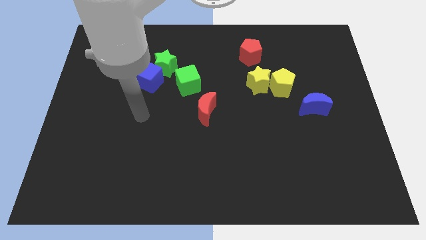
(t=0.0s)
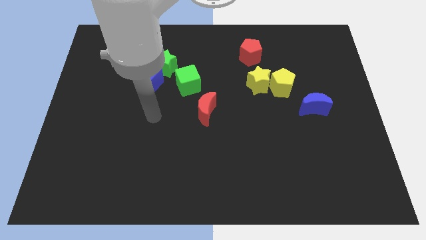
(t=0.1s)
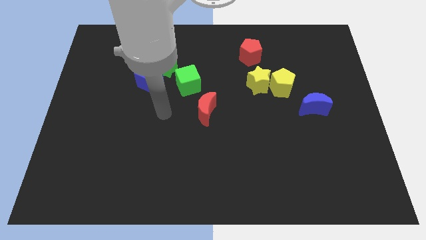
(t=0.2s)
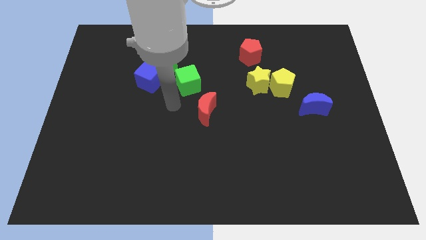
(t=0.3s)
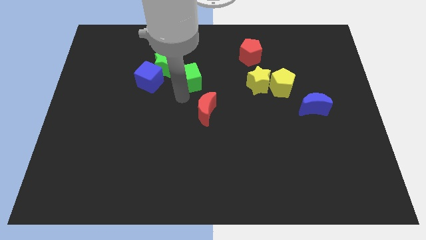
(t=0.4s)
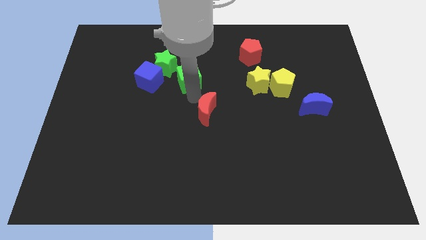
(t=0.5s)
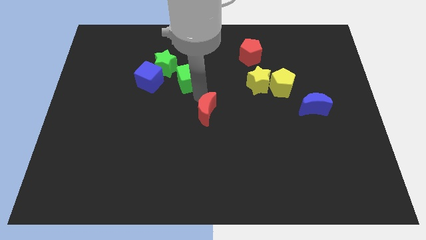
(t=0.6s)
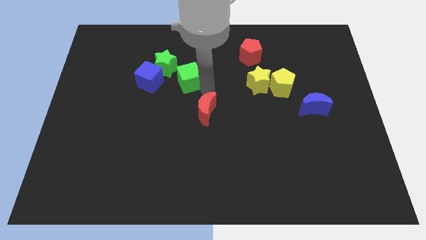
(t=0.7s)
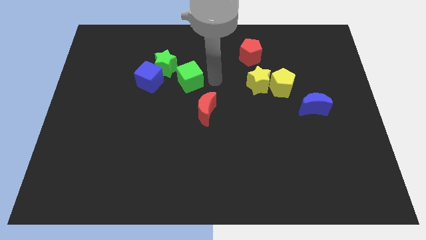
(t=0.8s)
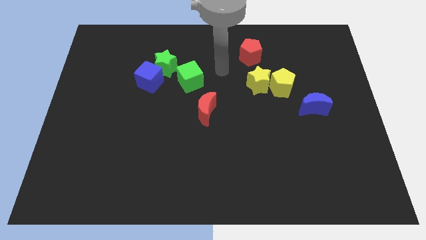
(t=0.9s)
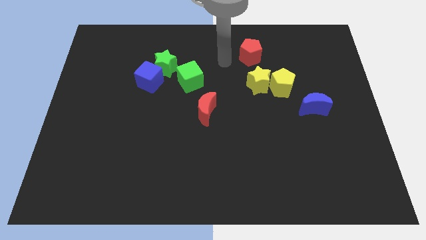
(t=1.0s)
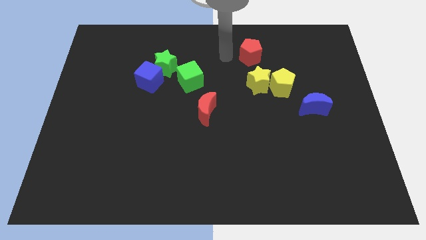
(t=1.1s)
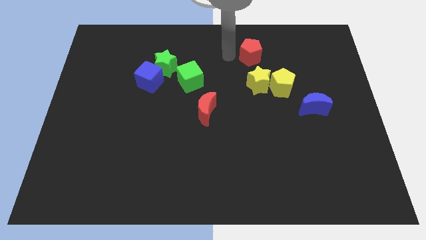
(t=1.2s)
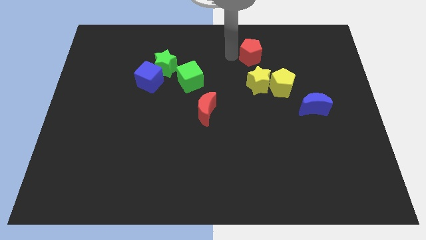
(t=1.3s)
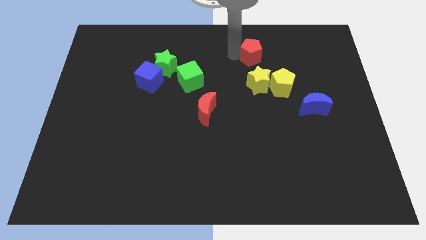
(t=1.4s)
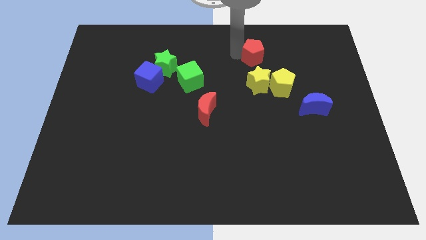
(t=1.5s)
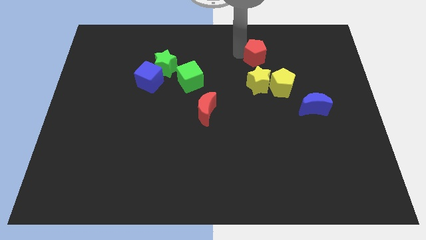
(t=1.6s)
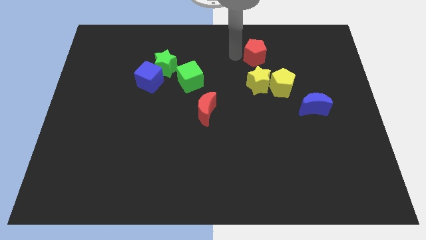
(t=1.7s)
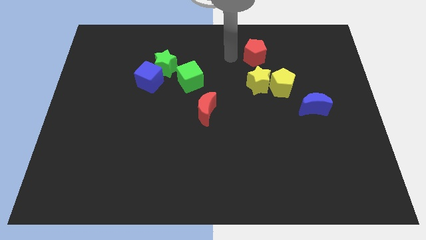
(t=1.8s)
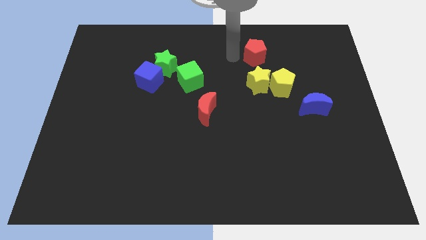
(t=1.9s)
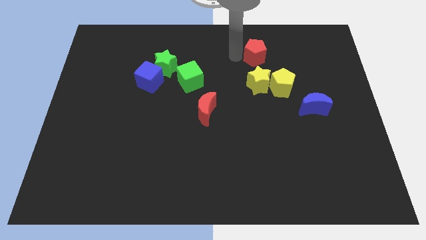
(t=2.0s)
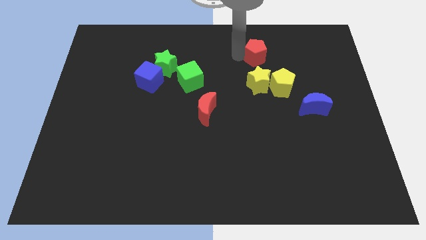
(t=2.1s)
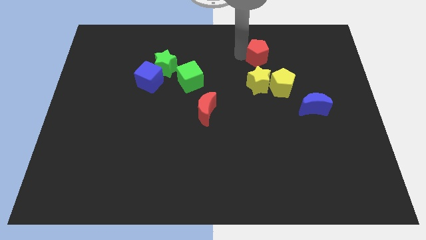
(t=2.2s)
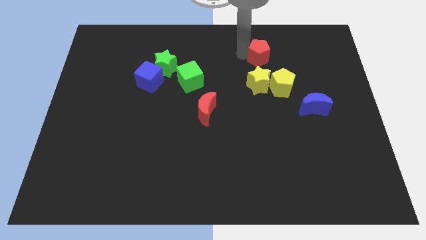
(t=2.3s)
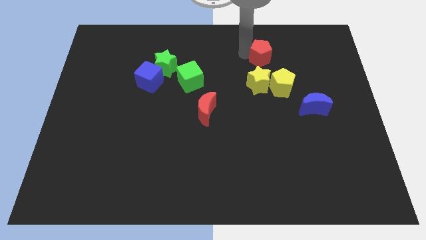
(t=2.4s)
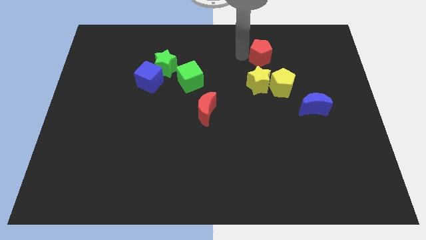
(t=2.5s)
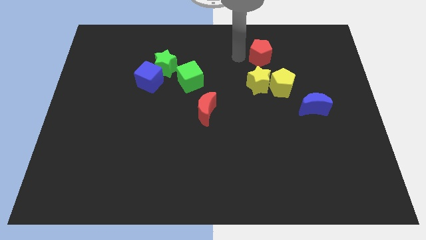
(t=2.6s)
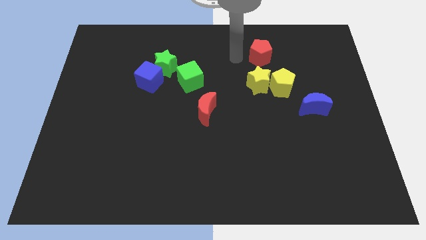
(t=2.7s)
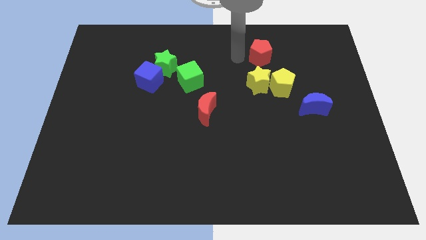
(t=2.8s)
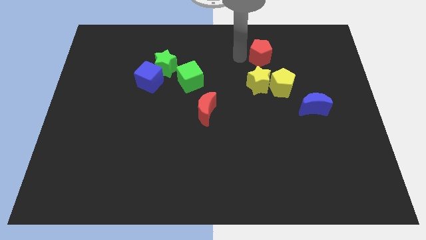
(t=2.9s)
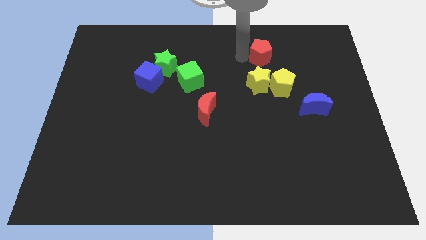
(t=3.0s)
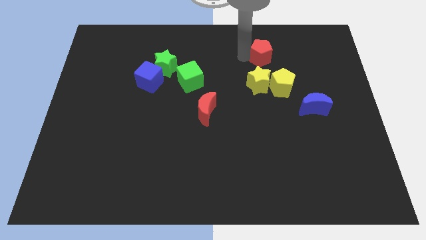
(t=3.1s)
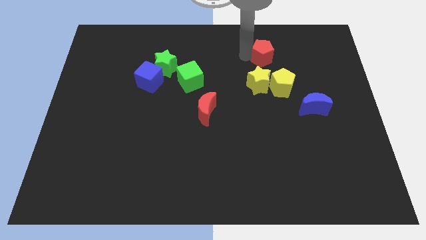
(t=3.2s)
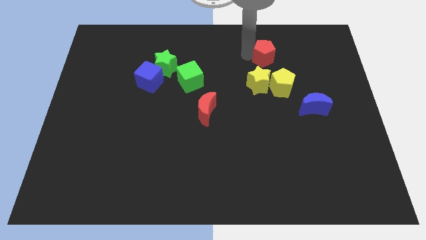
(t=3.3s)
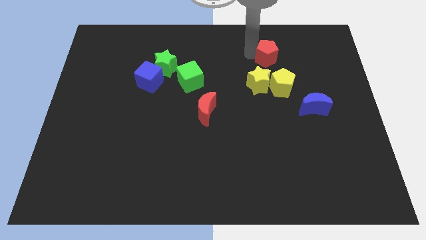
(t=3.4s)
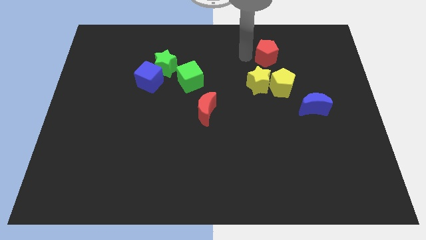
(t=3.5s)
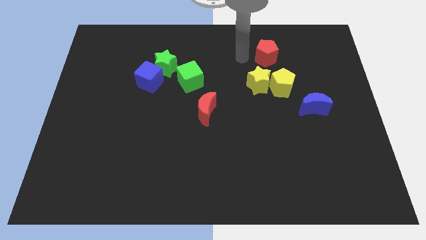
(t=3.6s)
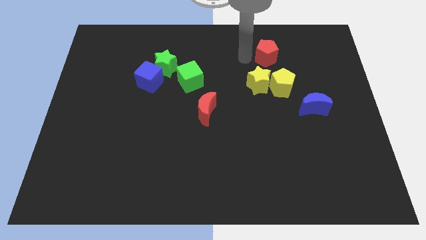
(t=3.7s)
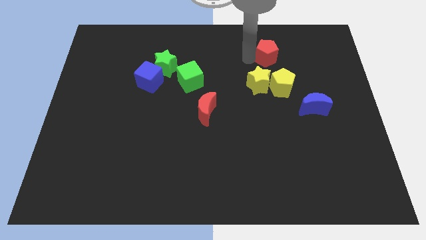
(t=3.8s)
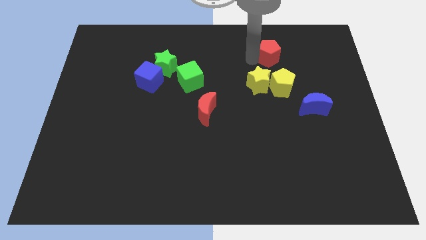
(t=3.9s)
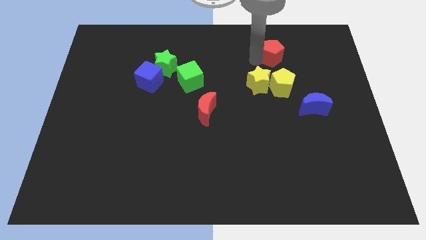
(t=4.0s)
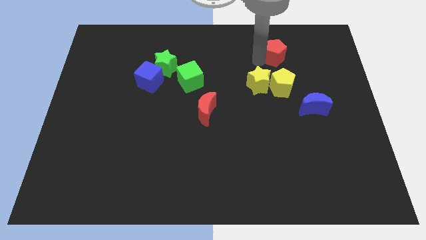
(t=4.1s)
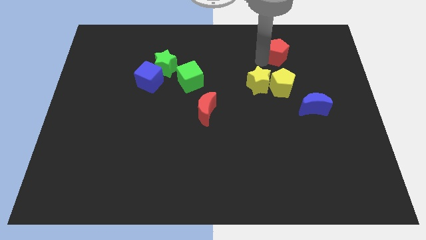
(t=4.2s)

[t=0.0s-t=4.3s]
slightly slide the red pentagon to the right

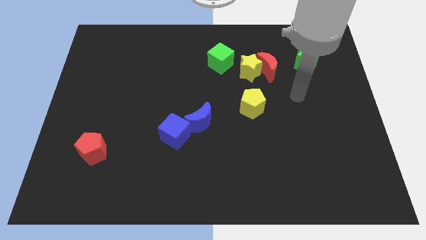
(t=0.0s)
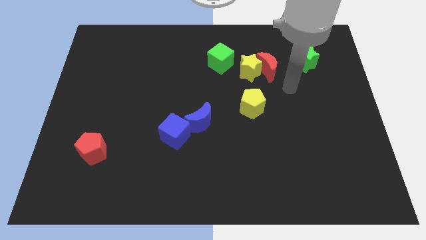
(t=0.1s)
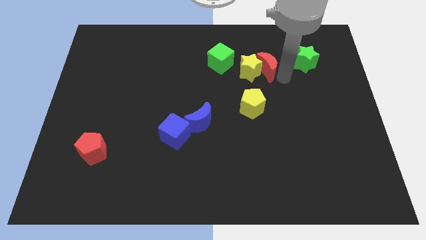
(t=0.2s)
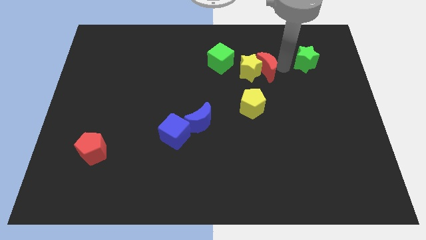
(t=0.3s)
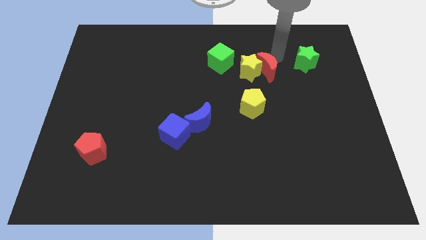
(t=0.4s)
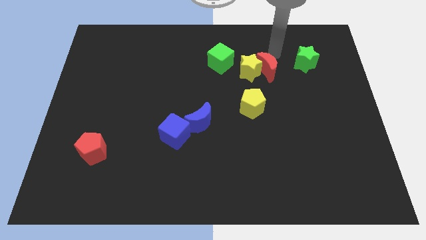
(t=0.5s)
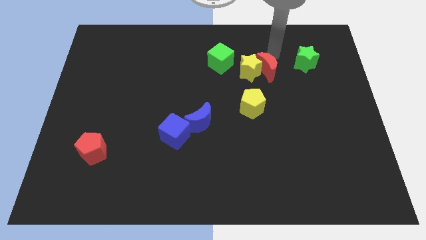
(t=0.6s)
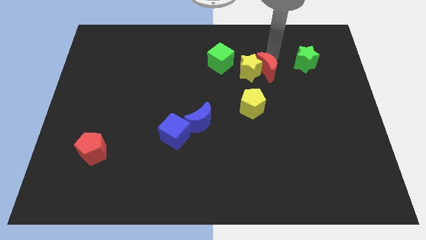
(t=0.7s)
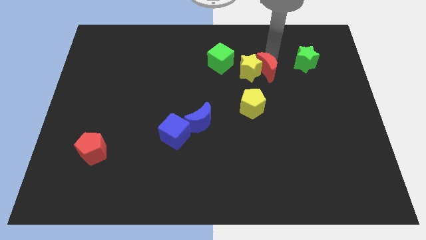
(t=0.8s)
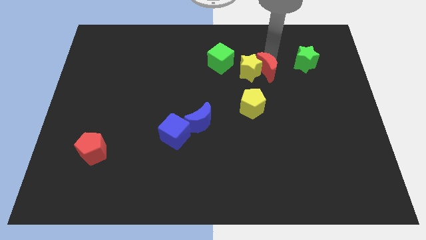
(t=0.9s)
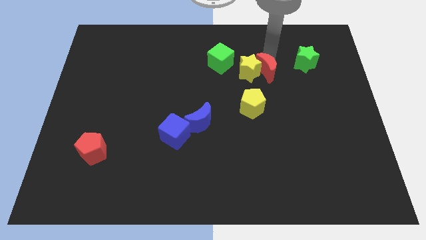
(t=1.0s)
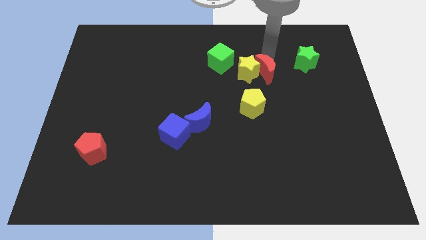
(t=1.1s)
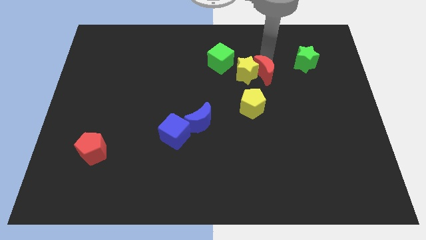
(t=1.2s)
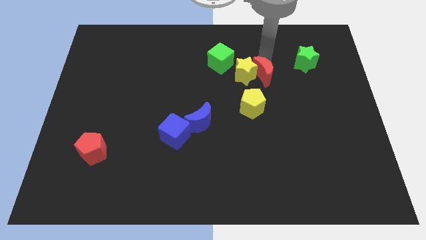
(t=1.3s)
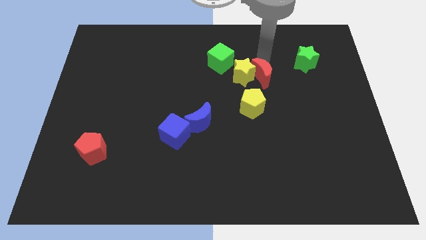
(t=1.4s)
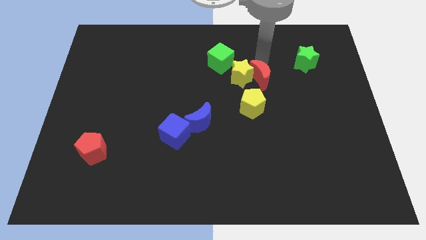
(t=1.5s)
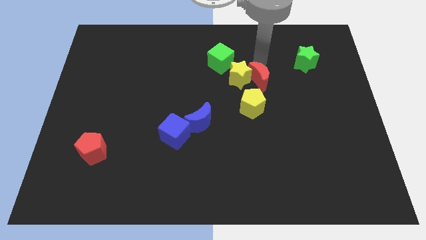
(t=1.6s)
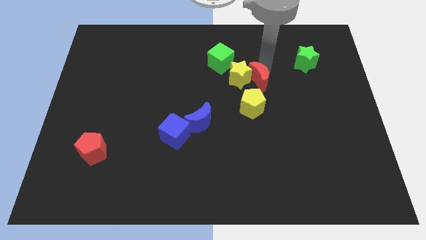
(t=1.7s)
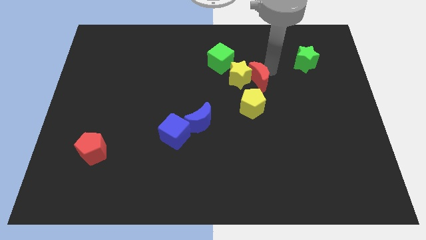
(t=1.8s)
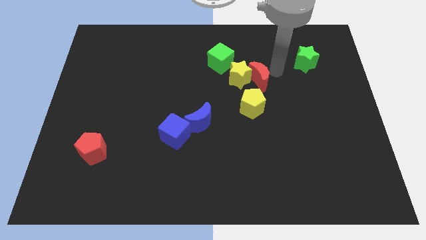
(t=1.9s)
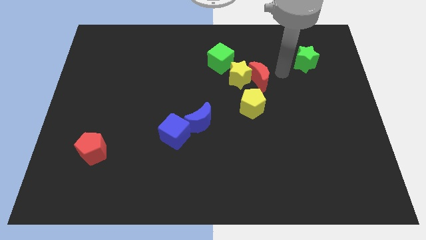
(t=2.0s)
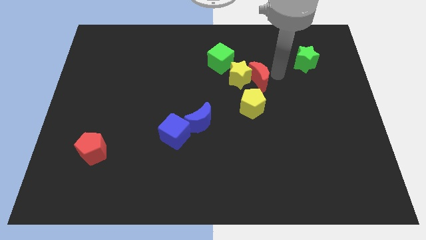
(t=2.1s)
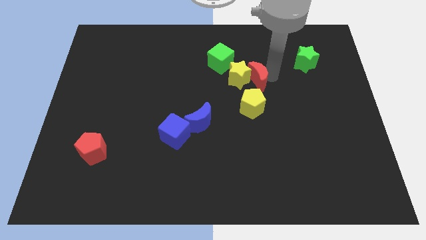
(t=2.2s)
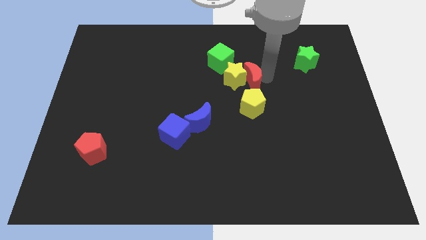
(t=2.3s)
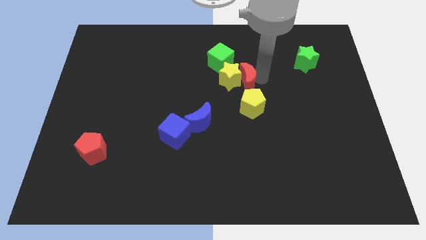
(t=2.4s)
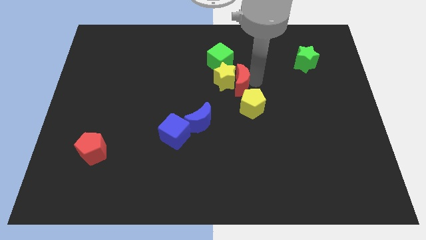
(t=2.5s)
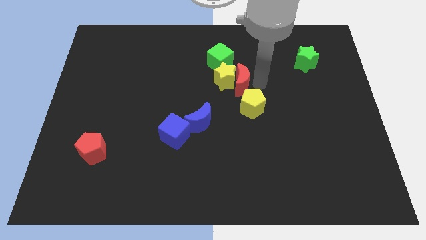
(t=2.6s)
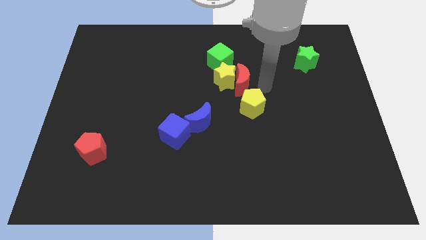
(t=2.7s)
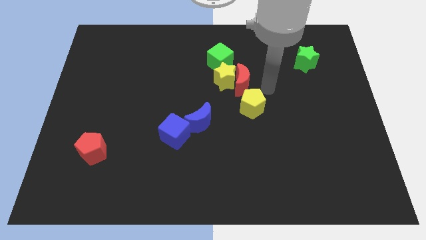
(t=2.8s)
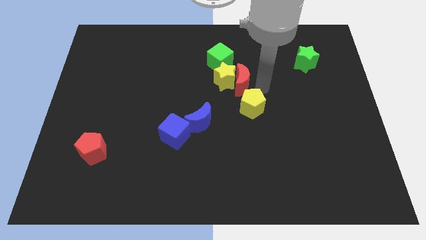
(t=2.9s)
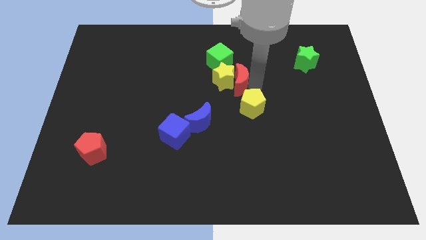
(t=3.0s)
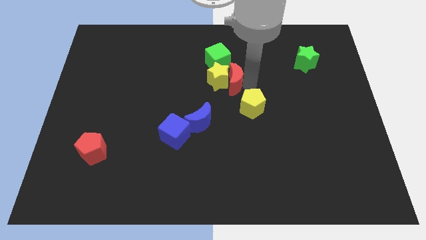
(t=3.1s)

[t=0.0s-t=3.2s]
move the red moon to the left a little bit

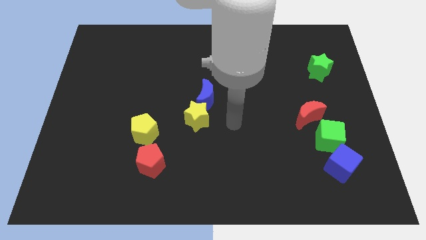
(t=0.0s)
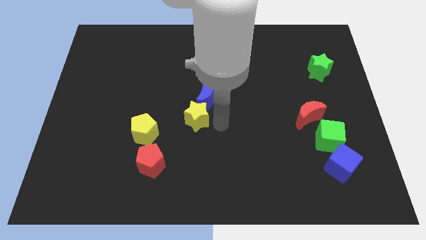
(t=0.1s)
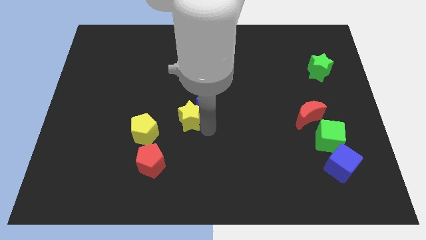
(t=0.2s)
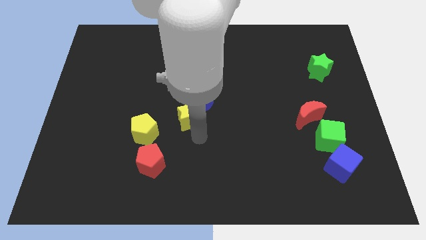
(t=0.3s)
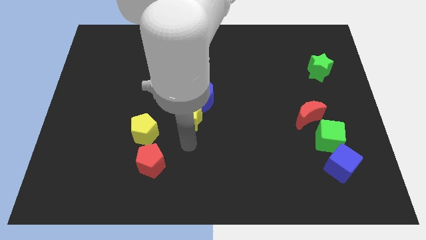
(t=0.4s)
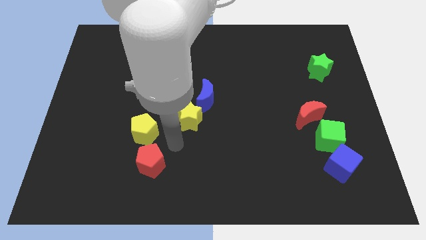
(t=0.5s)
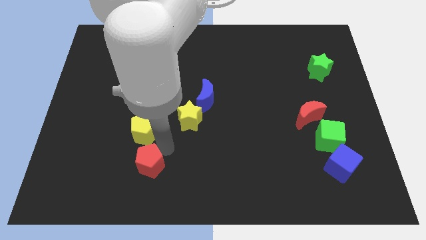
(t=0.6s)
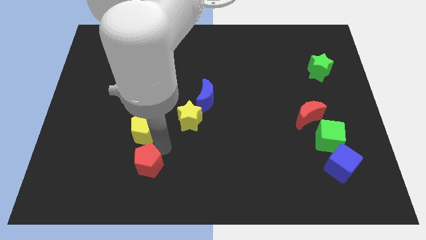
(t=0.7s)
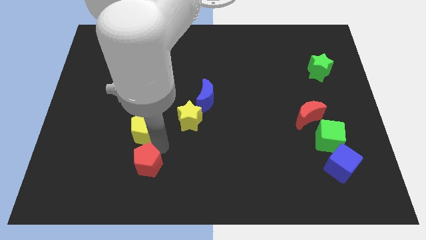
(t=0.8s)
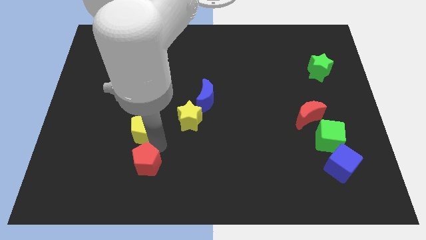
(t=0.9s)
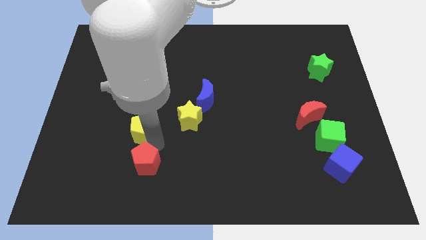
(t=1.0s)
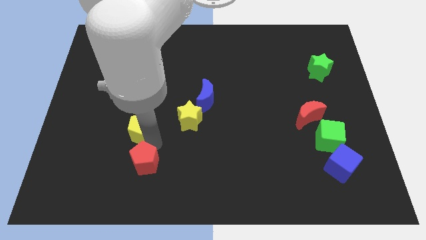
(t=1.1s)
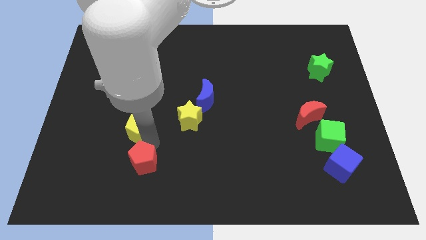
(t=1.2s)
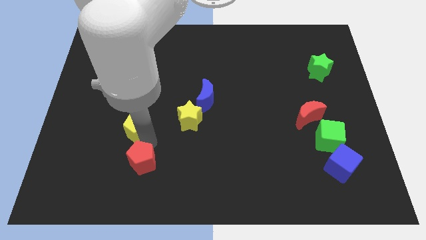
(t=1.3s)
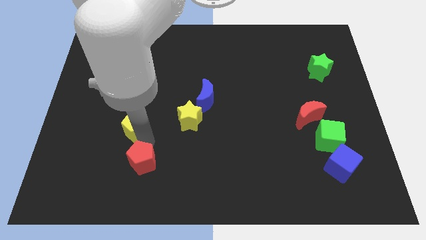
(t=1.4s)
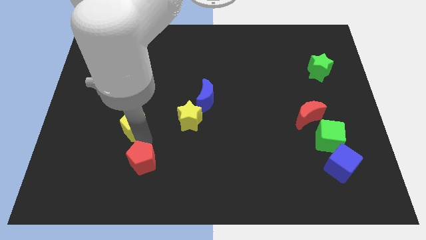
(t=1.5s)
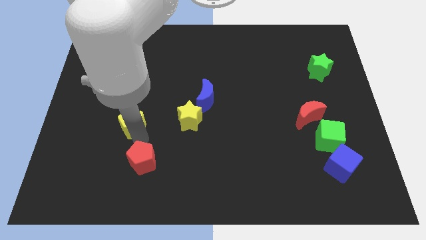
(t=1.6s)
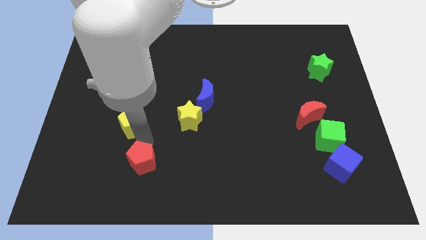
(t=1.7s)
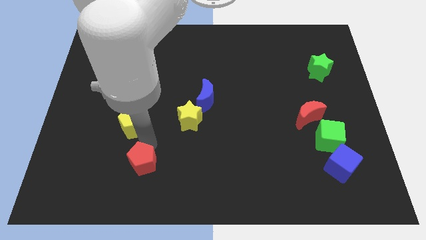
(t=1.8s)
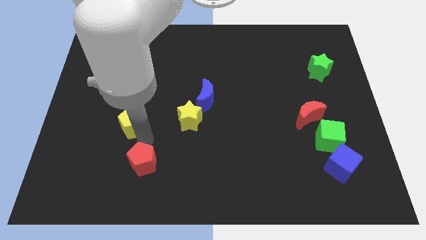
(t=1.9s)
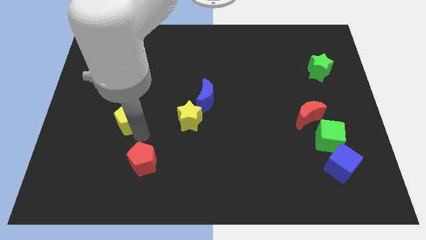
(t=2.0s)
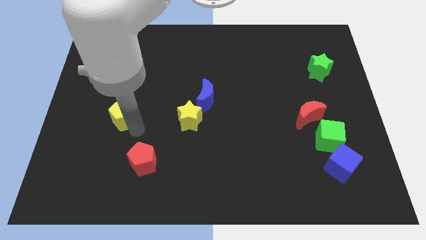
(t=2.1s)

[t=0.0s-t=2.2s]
slide the yellow pentagon a little bit upwards and left diagonally
